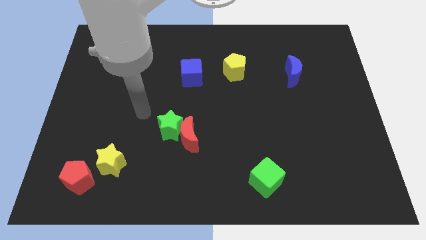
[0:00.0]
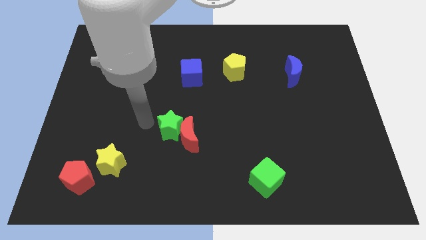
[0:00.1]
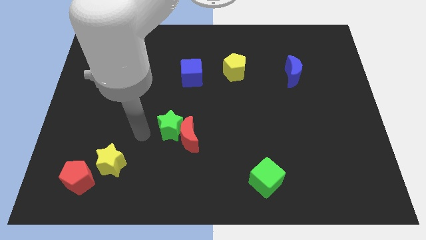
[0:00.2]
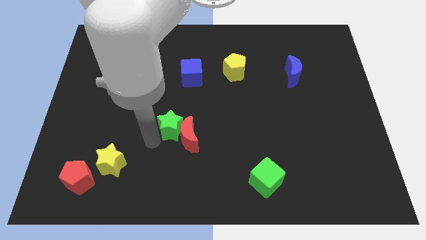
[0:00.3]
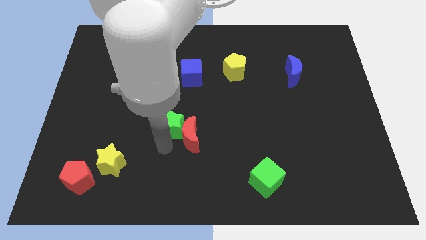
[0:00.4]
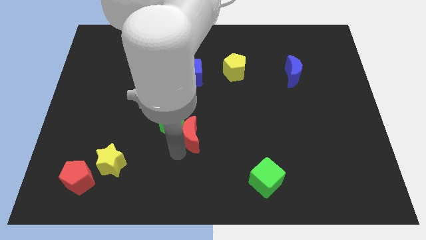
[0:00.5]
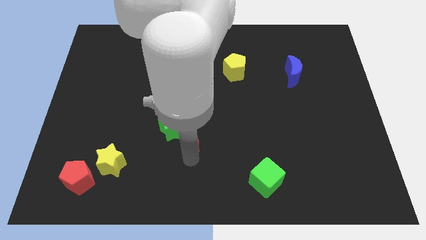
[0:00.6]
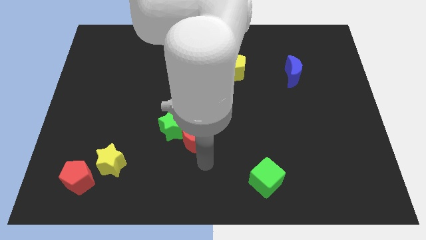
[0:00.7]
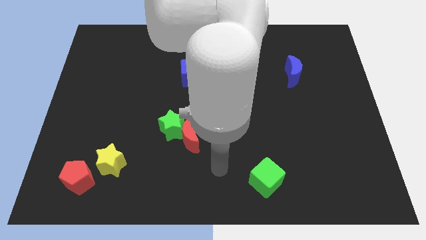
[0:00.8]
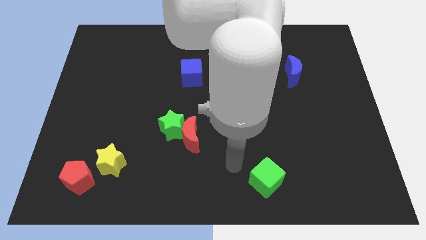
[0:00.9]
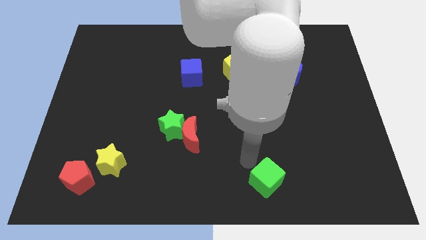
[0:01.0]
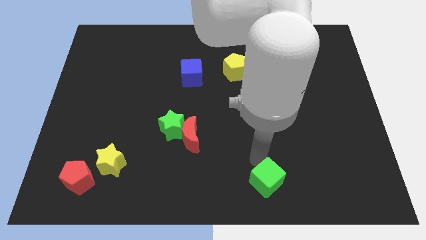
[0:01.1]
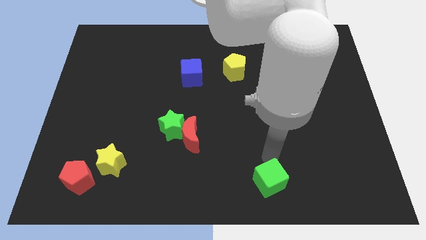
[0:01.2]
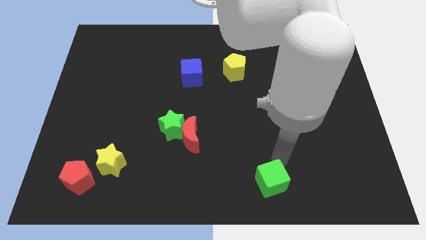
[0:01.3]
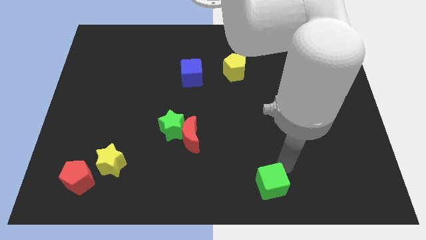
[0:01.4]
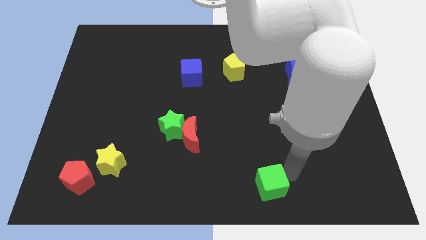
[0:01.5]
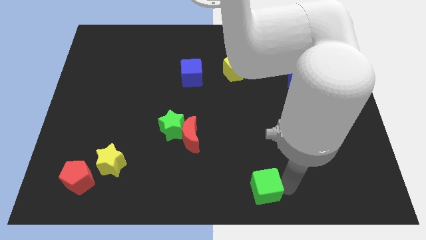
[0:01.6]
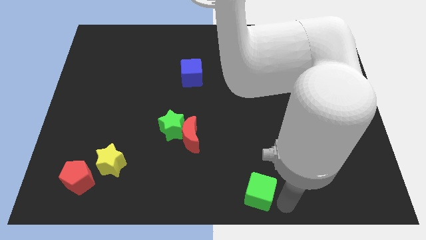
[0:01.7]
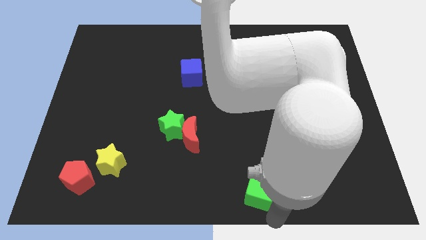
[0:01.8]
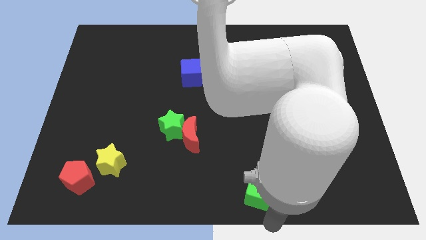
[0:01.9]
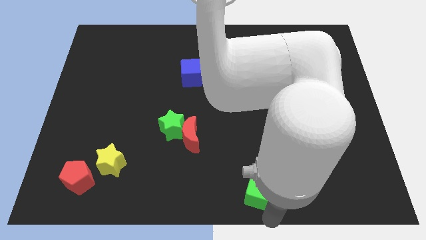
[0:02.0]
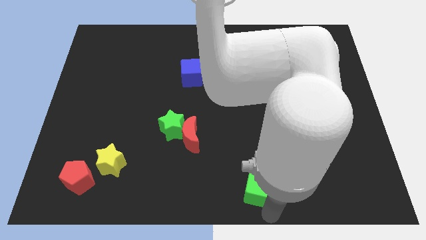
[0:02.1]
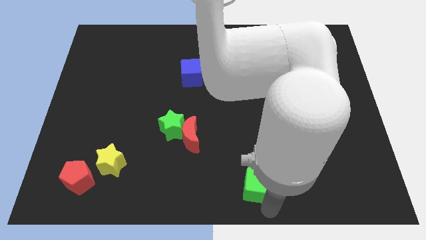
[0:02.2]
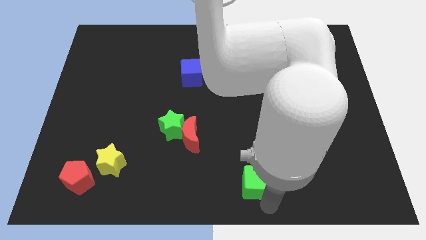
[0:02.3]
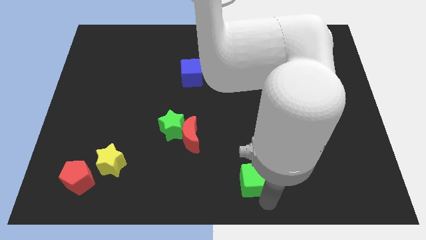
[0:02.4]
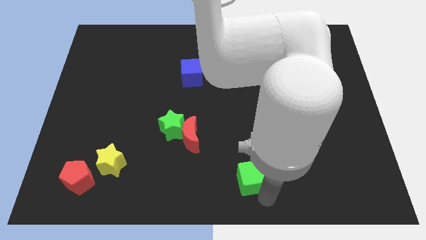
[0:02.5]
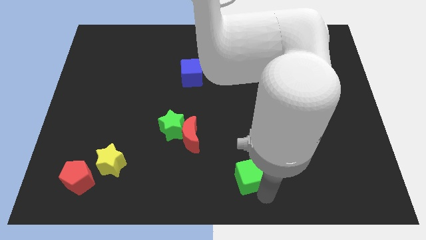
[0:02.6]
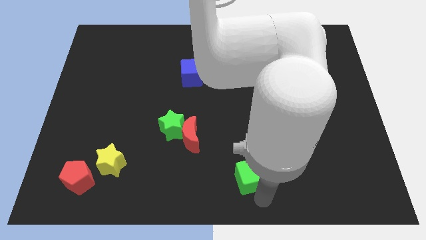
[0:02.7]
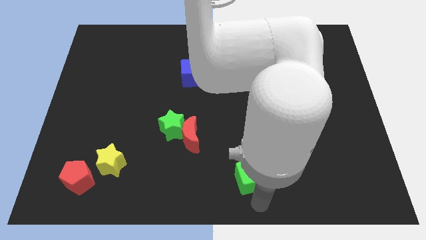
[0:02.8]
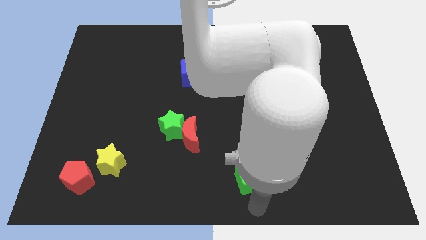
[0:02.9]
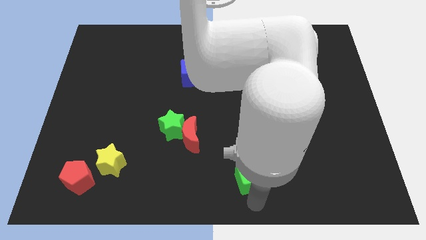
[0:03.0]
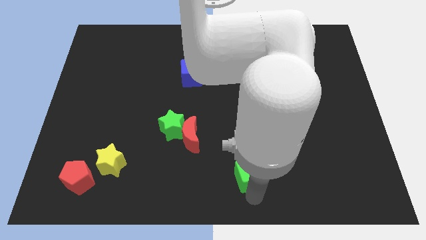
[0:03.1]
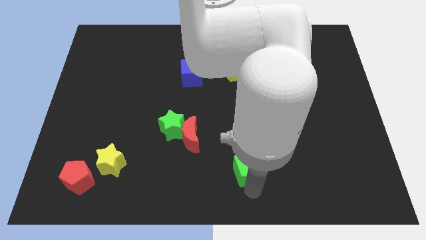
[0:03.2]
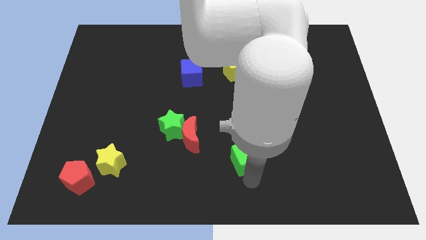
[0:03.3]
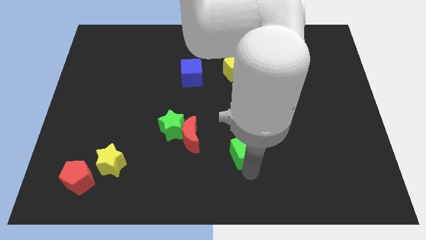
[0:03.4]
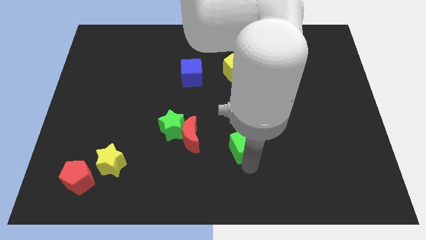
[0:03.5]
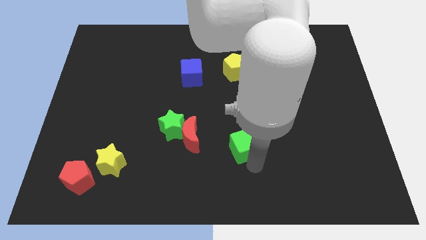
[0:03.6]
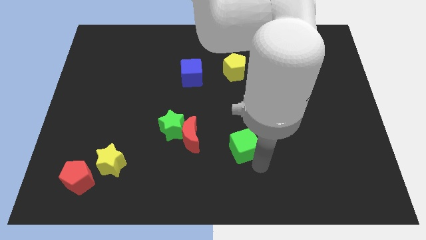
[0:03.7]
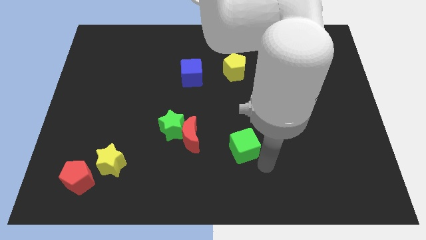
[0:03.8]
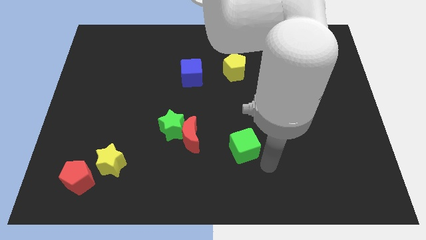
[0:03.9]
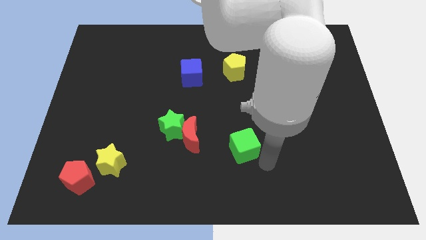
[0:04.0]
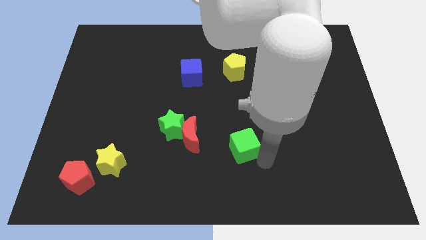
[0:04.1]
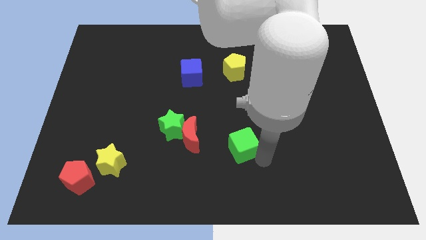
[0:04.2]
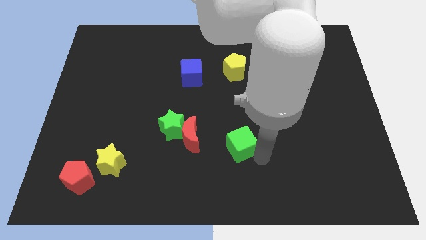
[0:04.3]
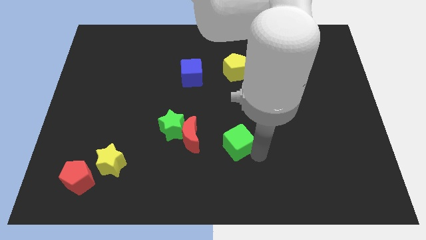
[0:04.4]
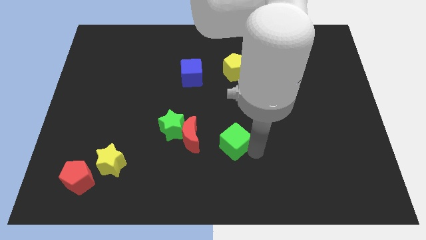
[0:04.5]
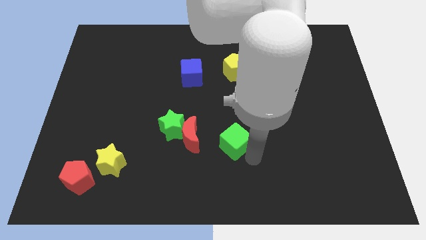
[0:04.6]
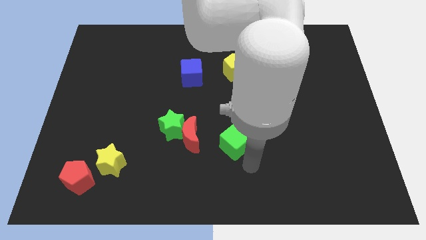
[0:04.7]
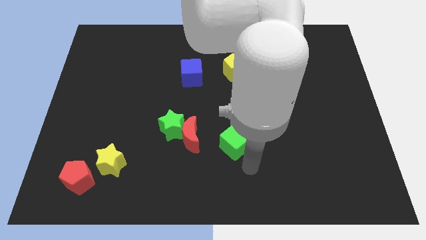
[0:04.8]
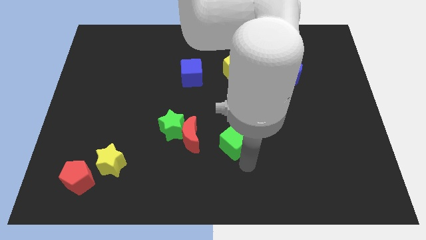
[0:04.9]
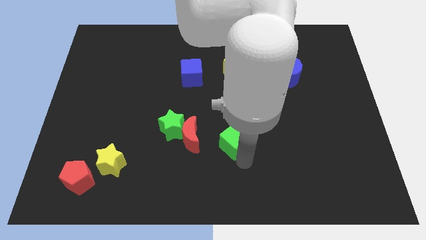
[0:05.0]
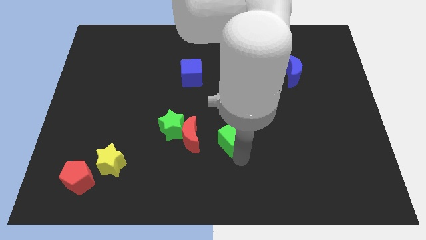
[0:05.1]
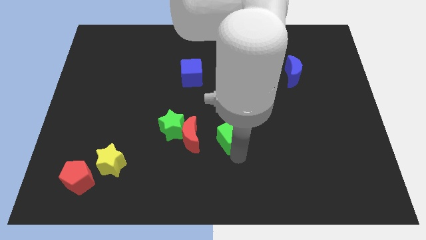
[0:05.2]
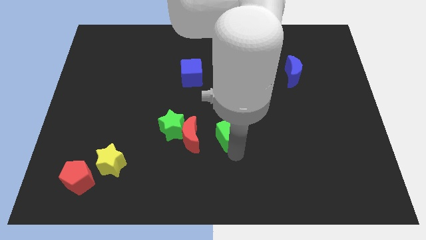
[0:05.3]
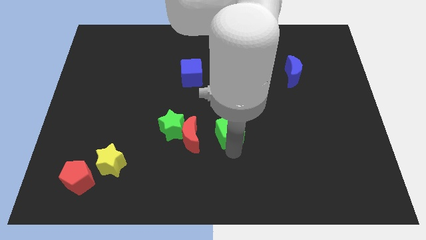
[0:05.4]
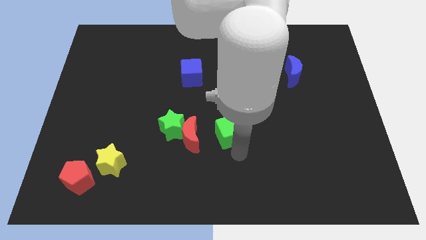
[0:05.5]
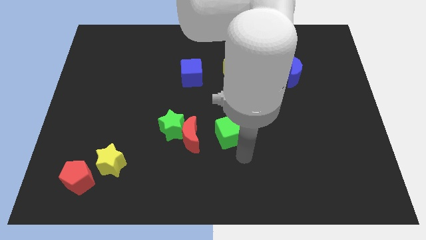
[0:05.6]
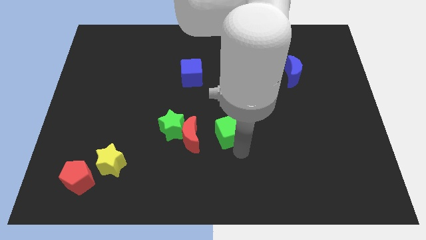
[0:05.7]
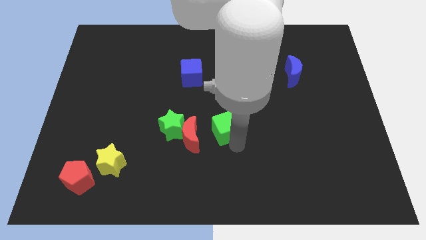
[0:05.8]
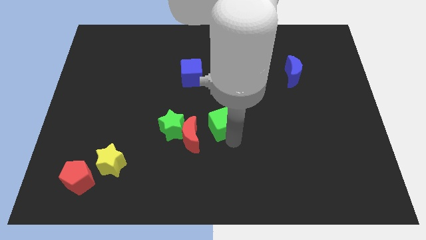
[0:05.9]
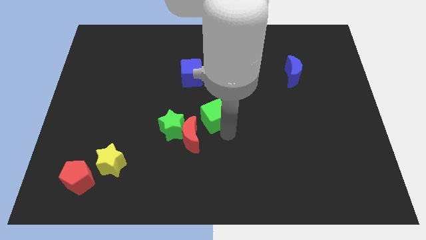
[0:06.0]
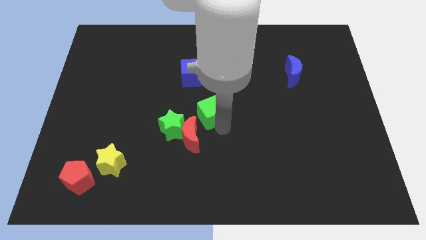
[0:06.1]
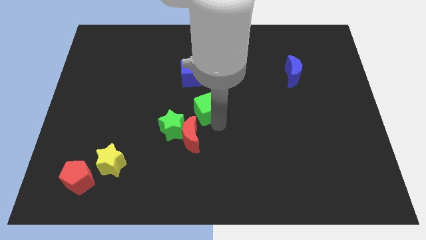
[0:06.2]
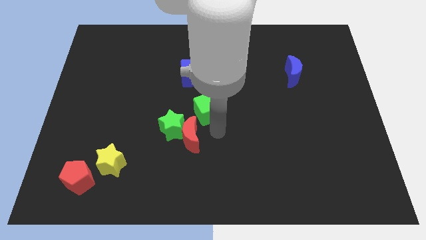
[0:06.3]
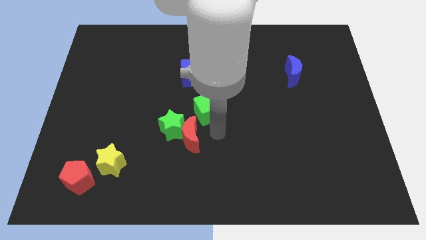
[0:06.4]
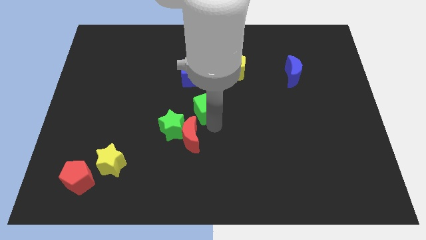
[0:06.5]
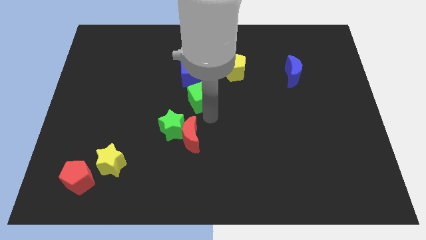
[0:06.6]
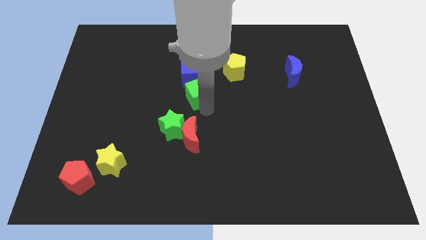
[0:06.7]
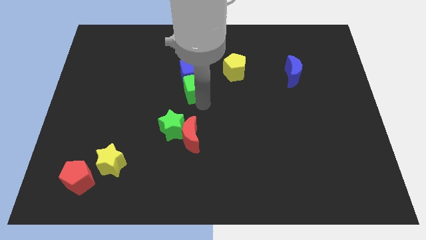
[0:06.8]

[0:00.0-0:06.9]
put the green cube close to the blue cube

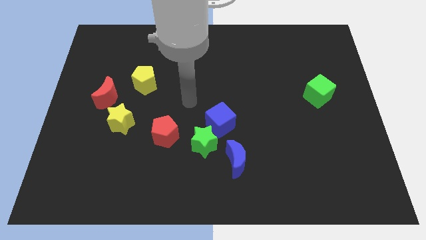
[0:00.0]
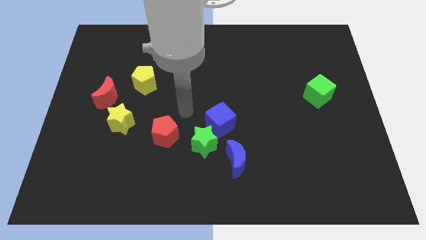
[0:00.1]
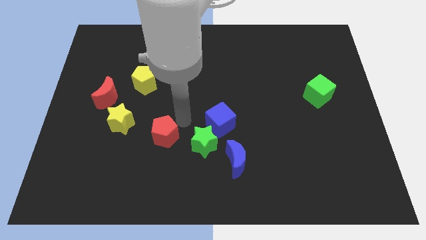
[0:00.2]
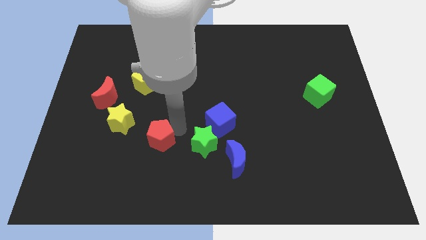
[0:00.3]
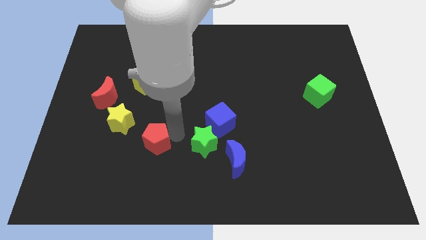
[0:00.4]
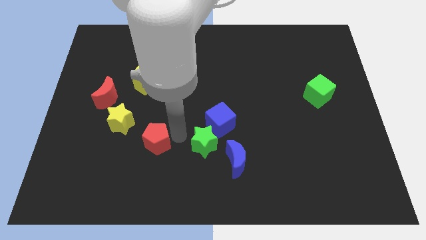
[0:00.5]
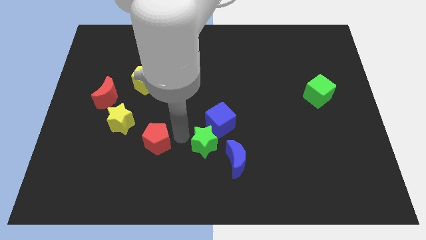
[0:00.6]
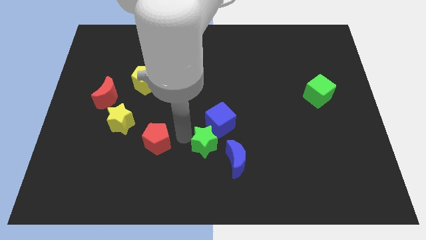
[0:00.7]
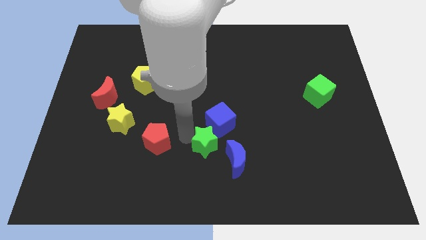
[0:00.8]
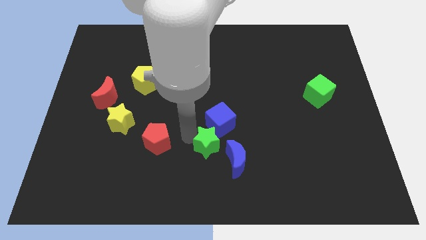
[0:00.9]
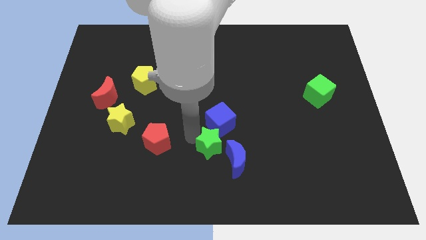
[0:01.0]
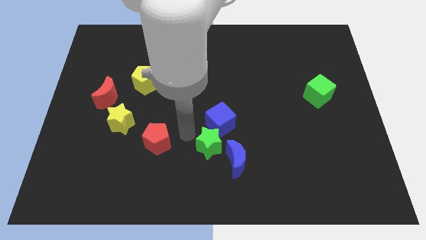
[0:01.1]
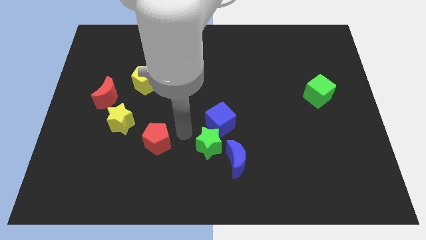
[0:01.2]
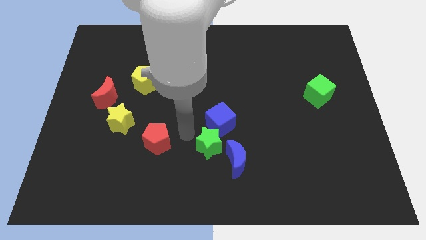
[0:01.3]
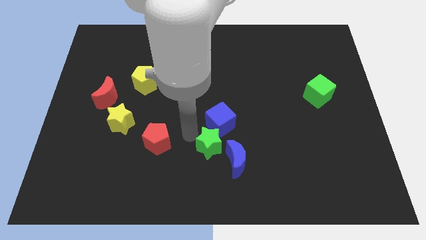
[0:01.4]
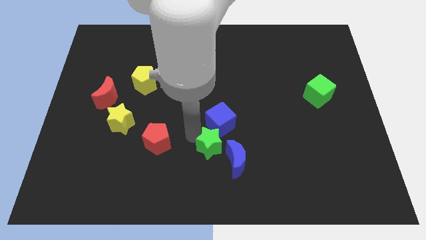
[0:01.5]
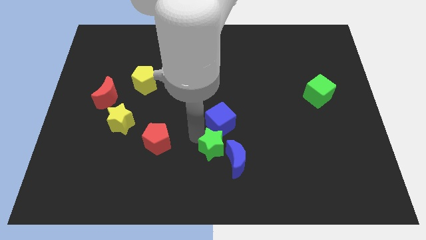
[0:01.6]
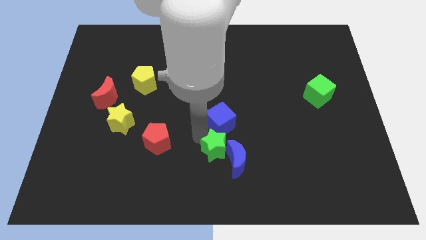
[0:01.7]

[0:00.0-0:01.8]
slide the green star towards the blue moon
